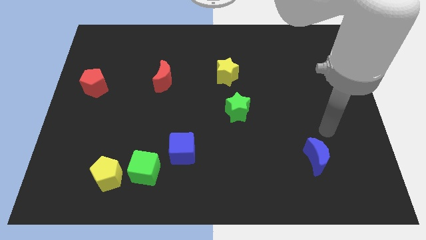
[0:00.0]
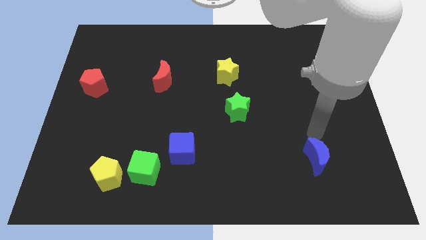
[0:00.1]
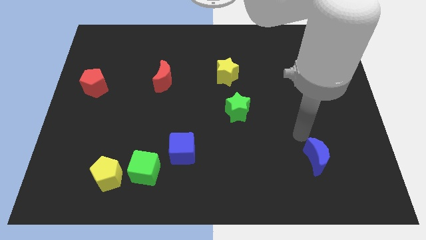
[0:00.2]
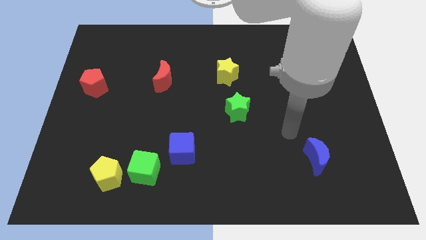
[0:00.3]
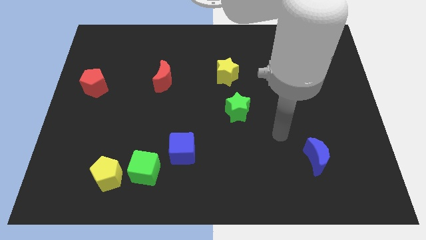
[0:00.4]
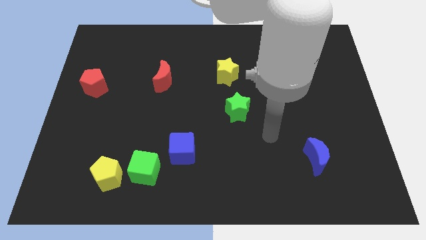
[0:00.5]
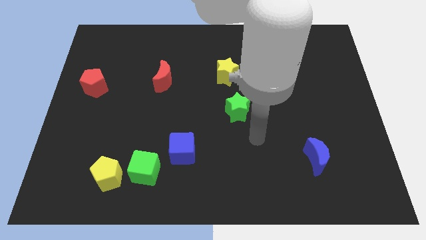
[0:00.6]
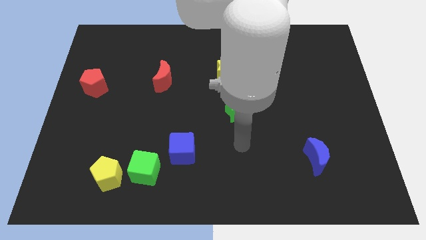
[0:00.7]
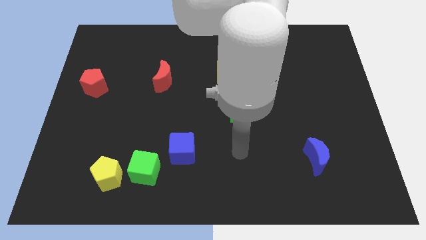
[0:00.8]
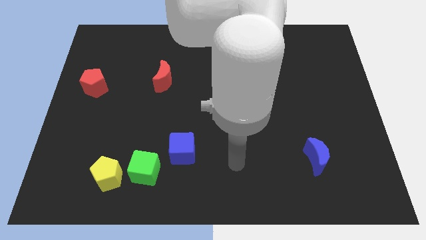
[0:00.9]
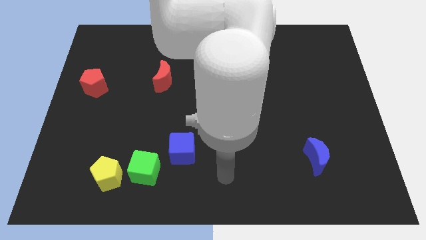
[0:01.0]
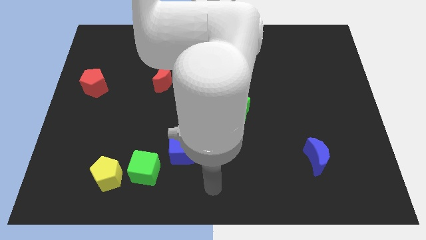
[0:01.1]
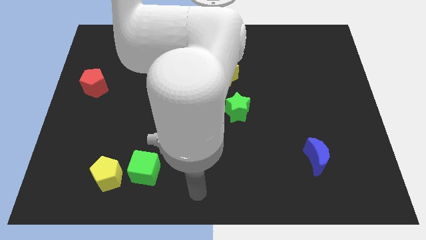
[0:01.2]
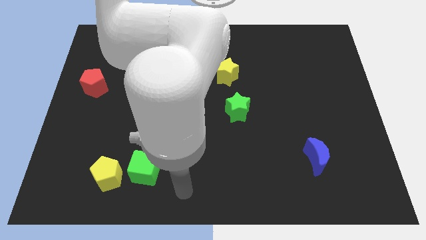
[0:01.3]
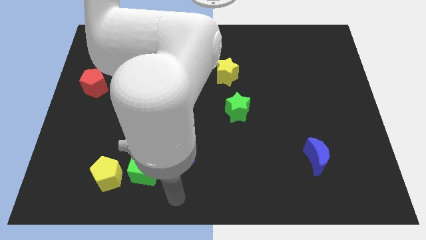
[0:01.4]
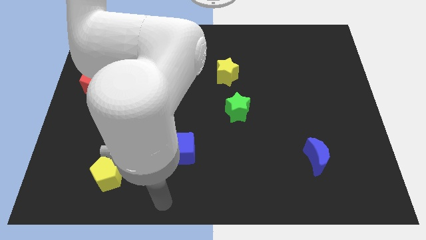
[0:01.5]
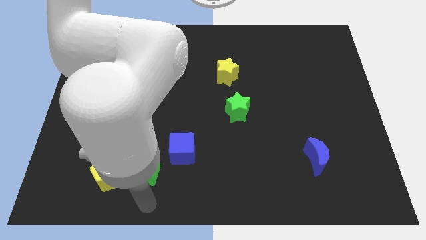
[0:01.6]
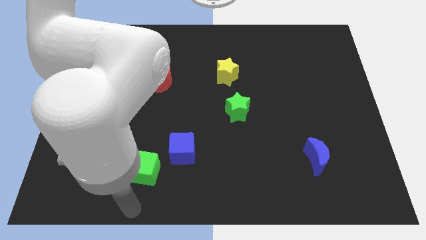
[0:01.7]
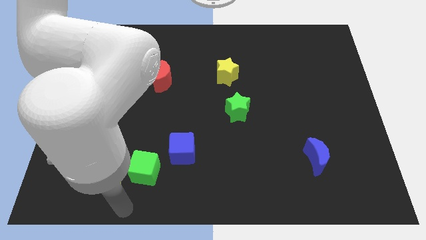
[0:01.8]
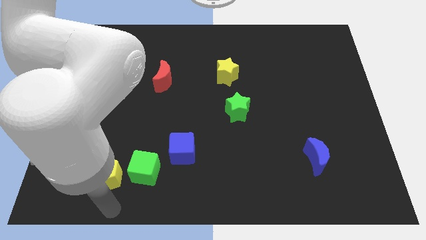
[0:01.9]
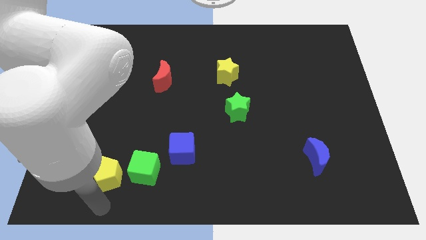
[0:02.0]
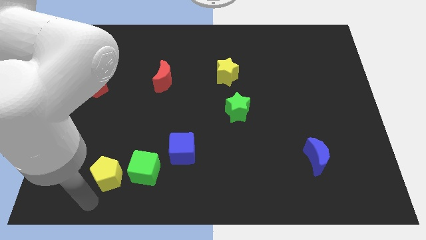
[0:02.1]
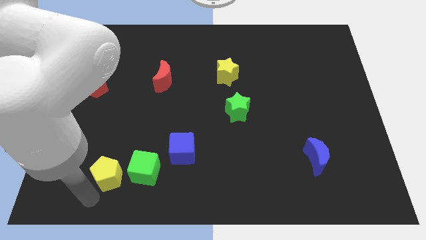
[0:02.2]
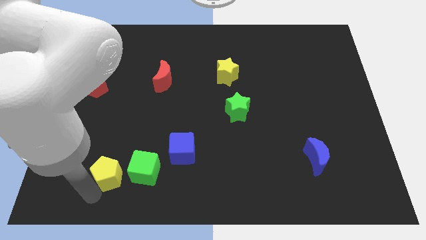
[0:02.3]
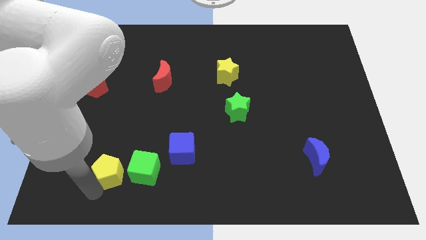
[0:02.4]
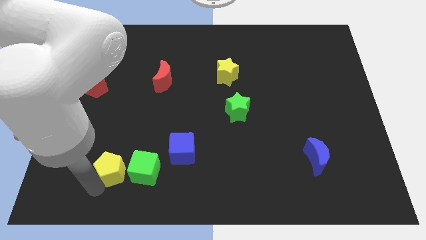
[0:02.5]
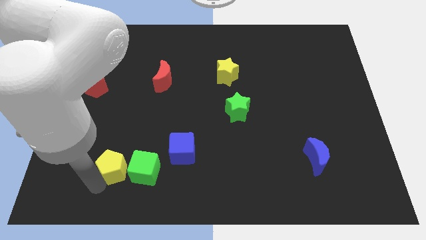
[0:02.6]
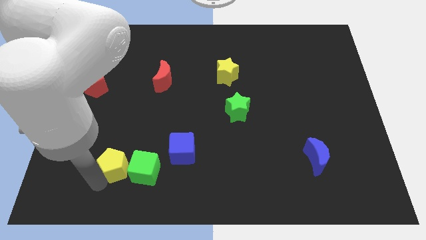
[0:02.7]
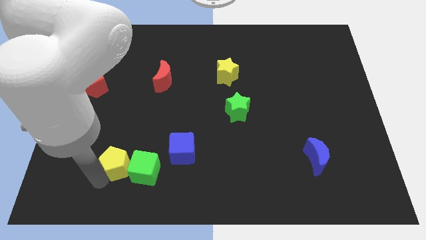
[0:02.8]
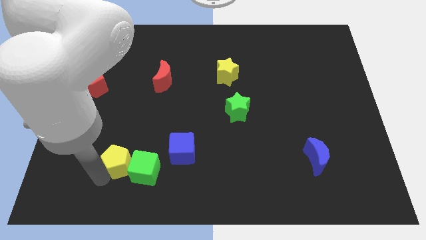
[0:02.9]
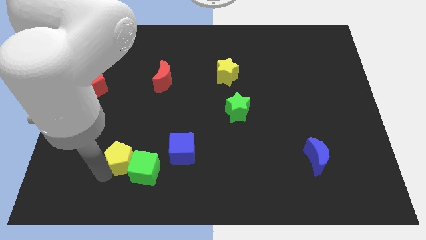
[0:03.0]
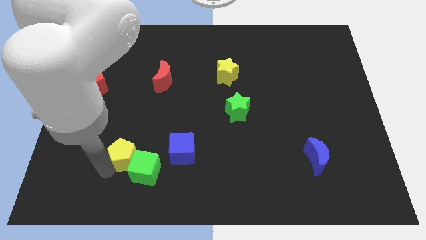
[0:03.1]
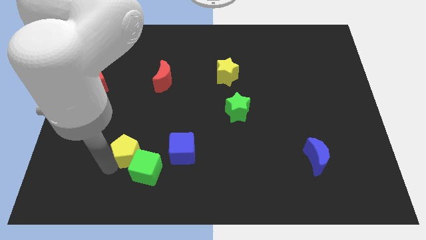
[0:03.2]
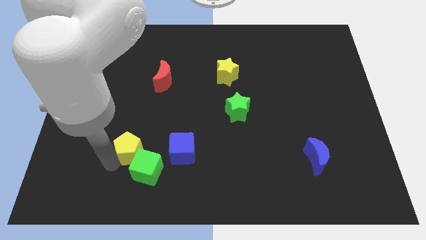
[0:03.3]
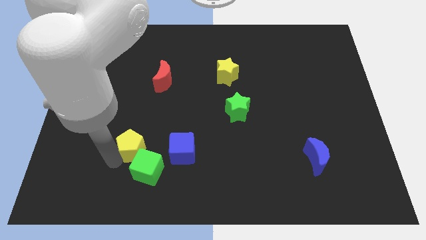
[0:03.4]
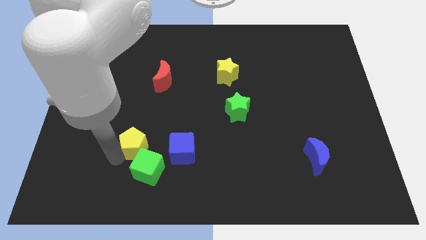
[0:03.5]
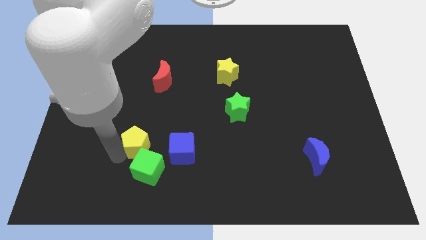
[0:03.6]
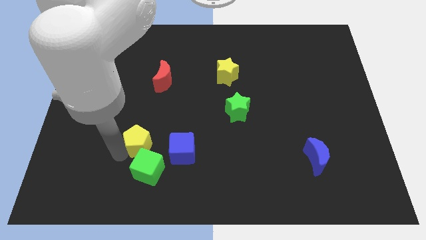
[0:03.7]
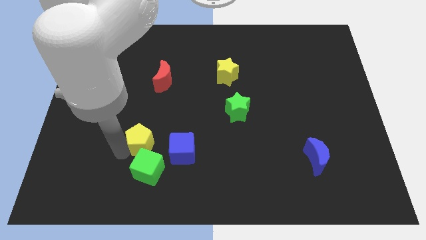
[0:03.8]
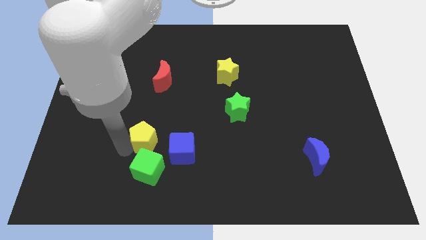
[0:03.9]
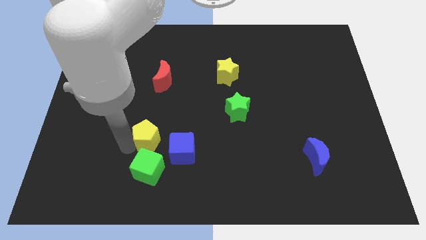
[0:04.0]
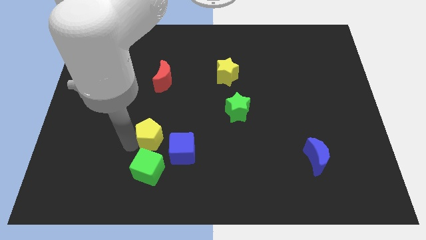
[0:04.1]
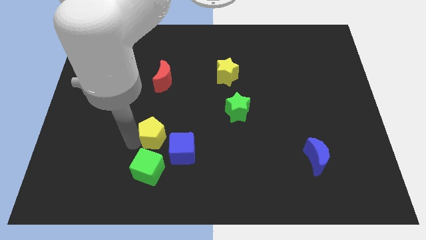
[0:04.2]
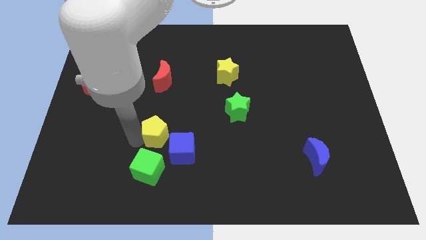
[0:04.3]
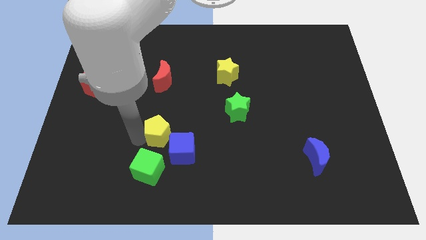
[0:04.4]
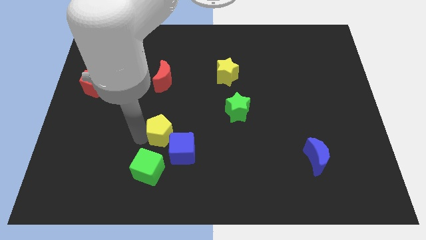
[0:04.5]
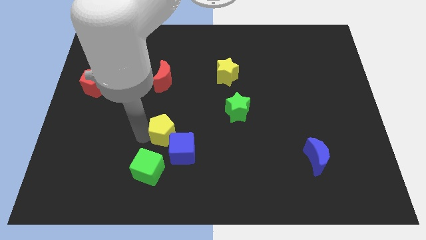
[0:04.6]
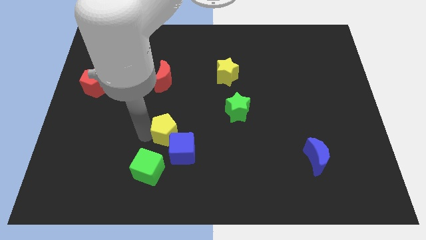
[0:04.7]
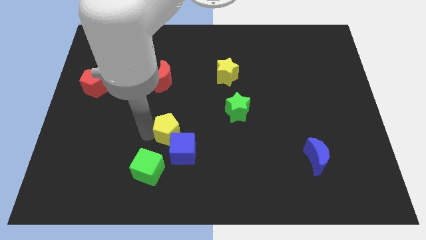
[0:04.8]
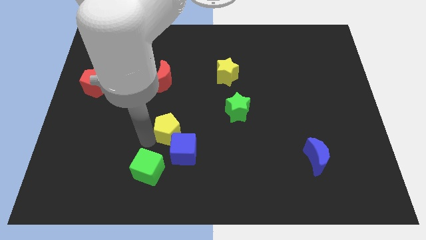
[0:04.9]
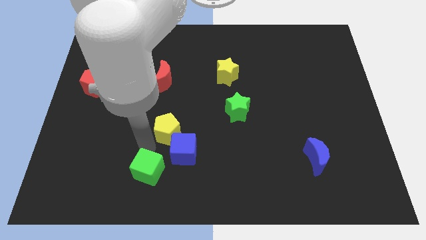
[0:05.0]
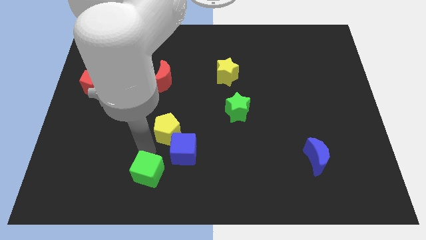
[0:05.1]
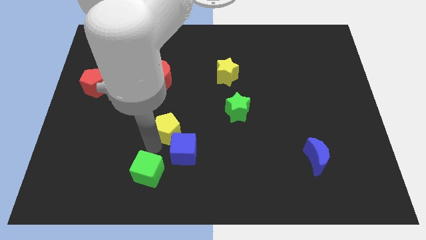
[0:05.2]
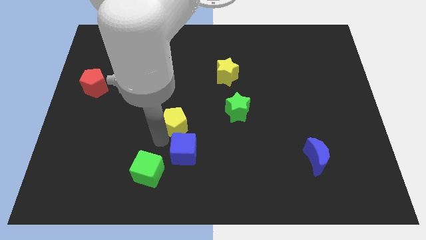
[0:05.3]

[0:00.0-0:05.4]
push the yellow pentagon to the center of the board

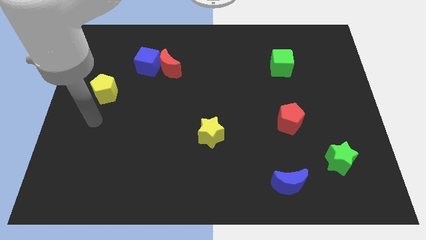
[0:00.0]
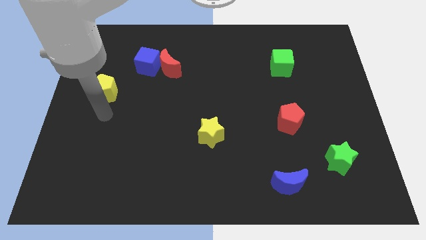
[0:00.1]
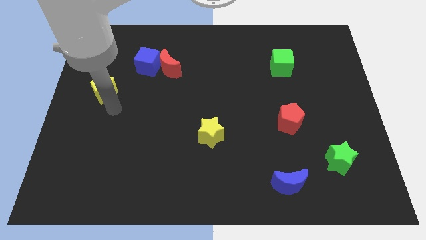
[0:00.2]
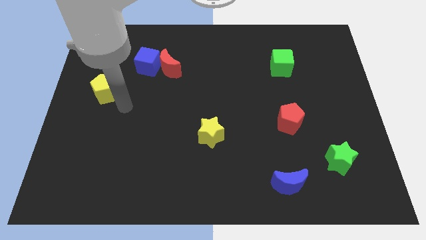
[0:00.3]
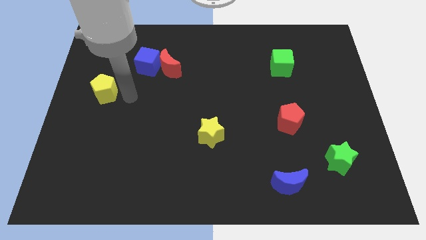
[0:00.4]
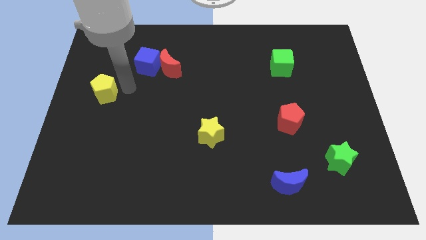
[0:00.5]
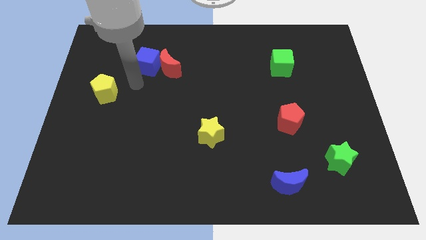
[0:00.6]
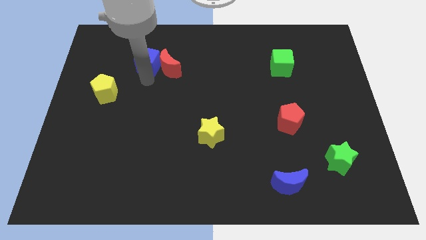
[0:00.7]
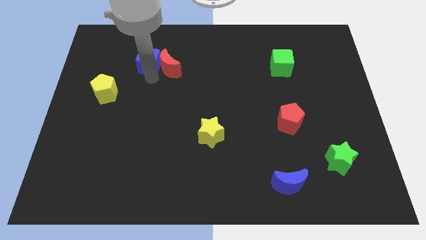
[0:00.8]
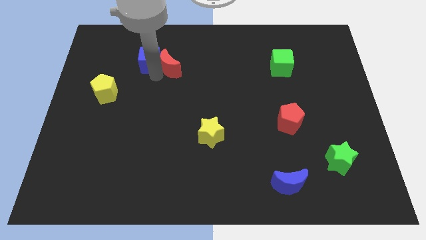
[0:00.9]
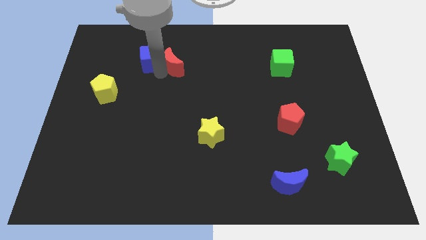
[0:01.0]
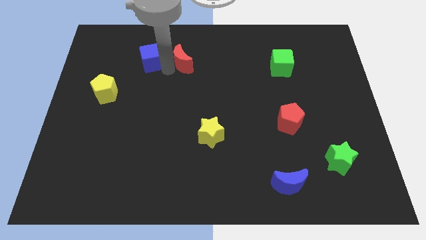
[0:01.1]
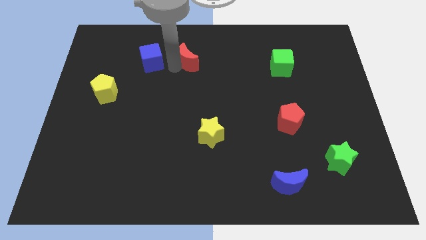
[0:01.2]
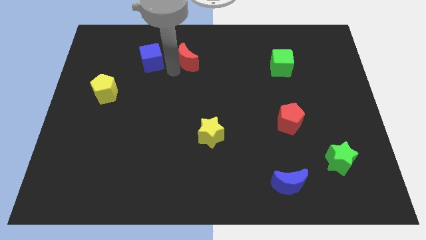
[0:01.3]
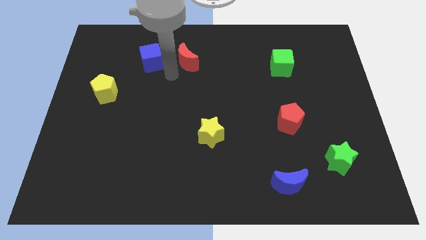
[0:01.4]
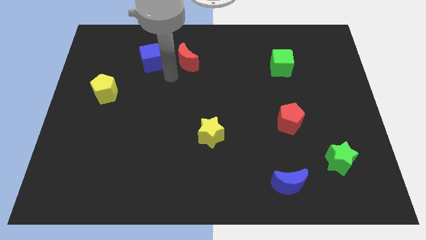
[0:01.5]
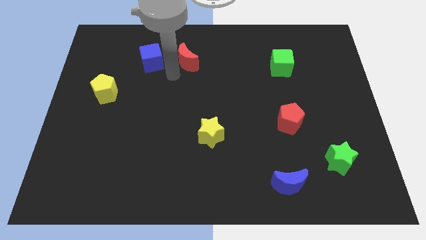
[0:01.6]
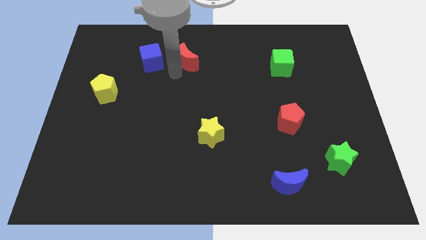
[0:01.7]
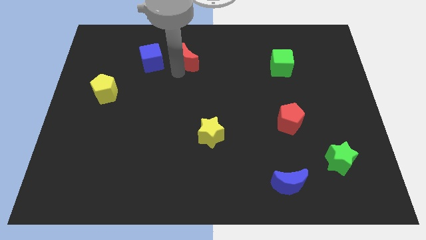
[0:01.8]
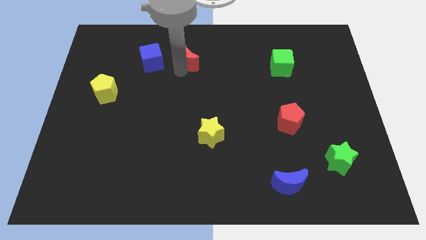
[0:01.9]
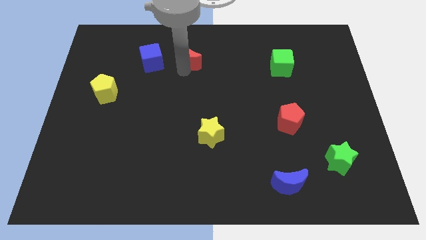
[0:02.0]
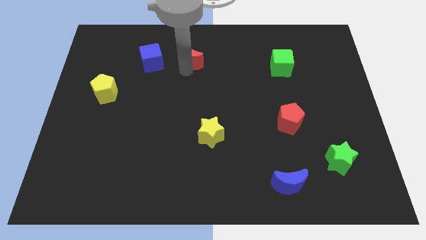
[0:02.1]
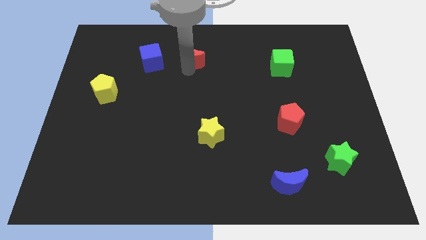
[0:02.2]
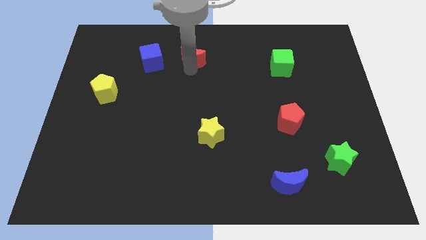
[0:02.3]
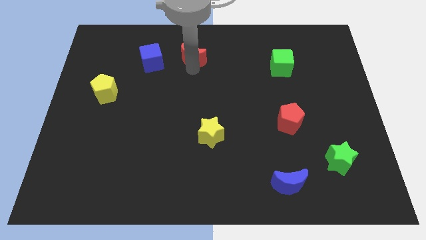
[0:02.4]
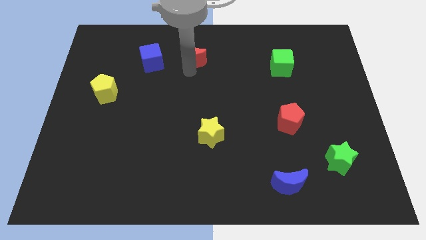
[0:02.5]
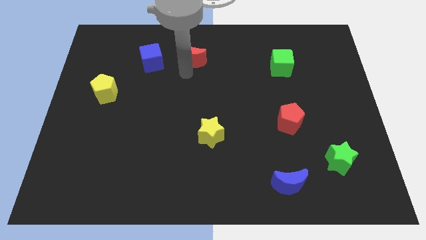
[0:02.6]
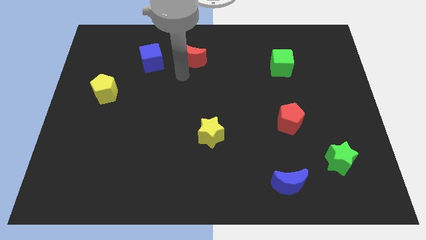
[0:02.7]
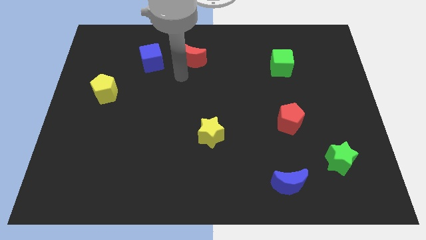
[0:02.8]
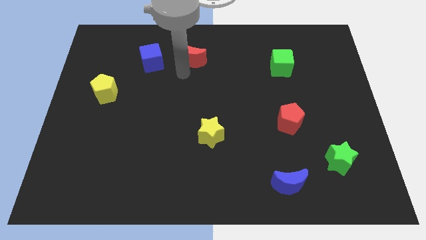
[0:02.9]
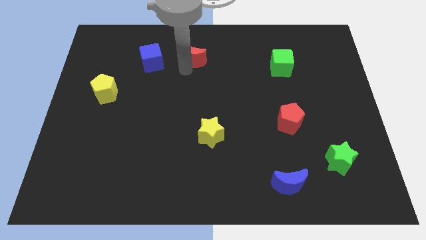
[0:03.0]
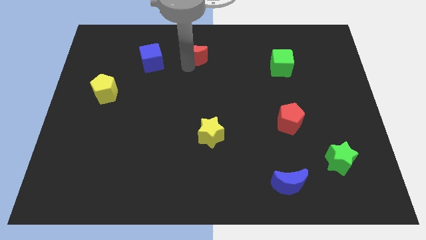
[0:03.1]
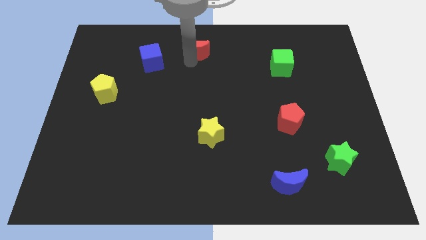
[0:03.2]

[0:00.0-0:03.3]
slide the red moon to the towards your base
